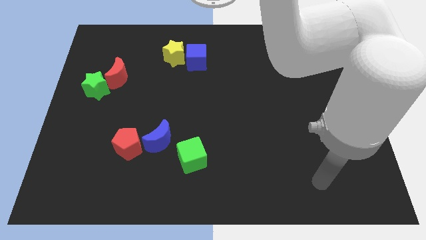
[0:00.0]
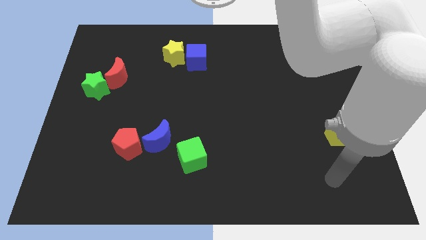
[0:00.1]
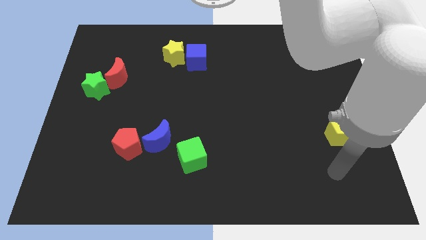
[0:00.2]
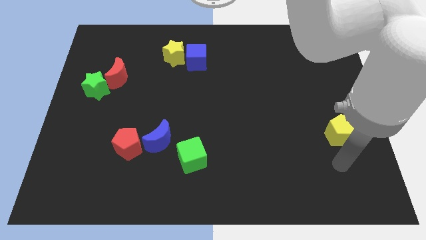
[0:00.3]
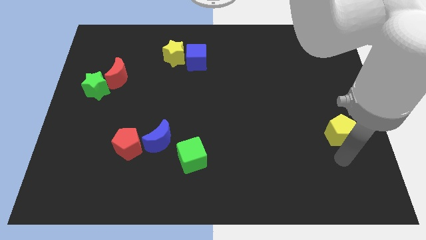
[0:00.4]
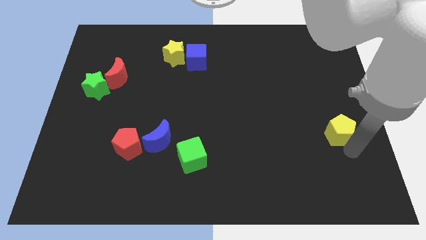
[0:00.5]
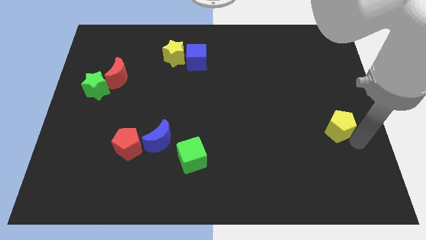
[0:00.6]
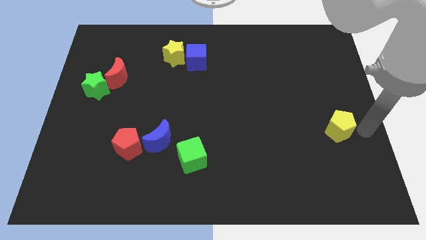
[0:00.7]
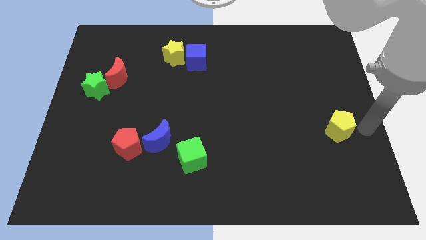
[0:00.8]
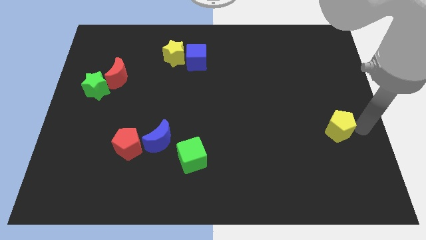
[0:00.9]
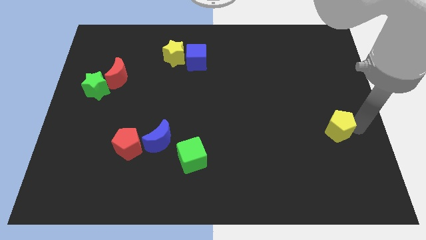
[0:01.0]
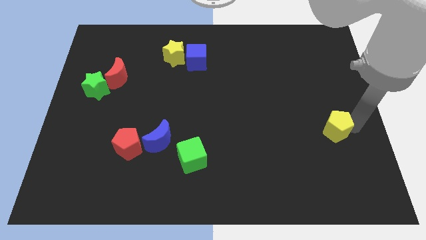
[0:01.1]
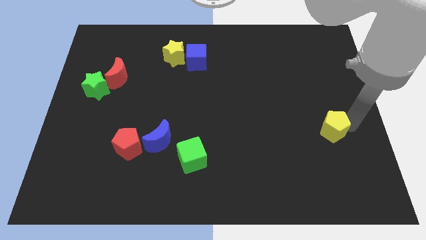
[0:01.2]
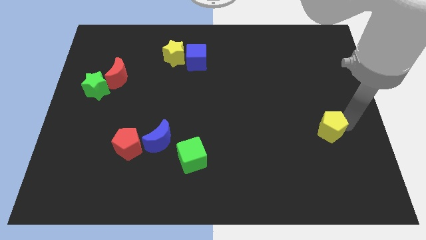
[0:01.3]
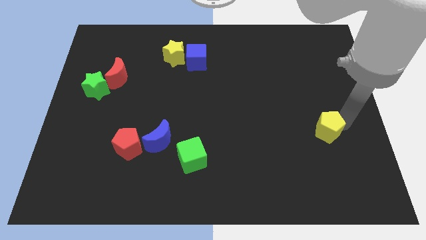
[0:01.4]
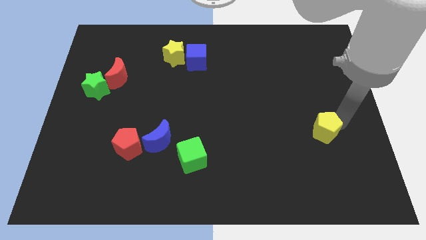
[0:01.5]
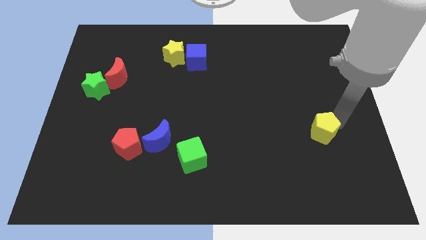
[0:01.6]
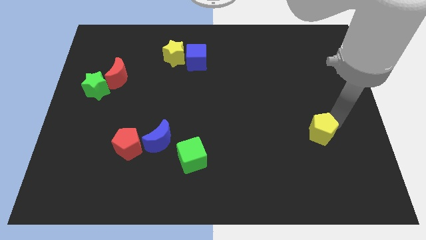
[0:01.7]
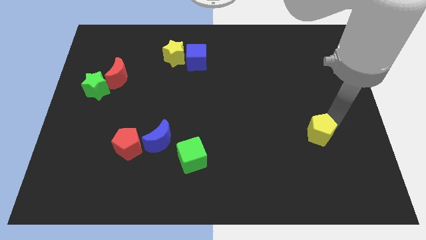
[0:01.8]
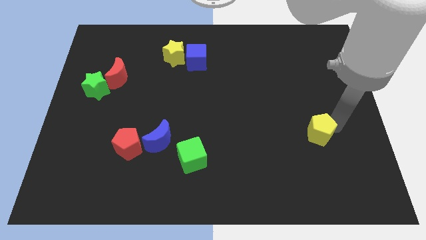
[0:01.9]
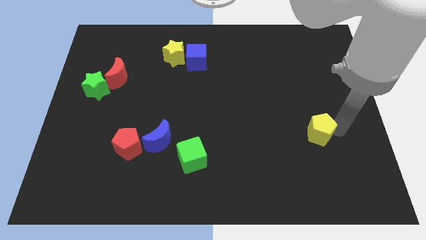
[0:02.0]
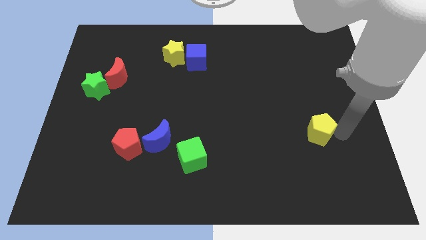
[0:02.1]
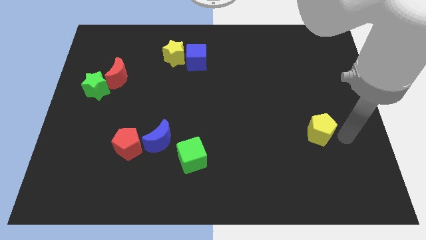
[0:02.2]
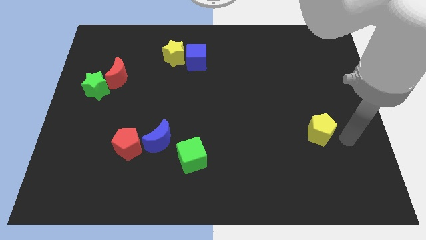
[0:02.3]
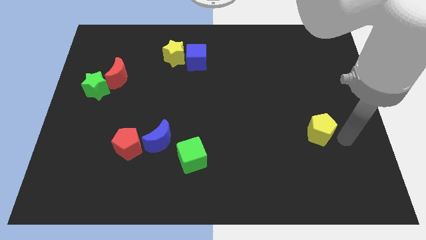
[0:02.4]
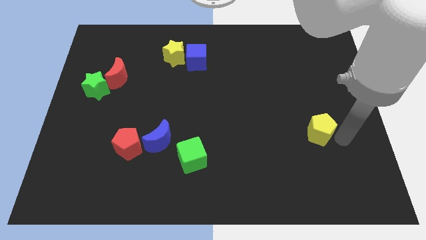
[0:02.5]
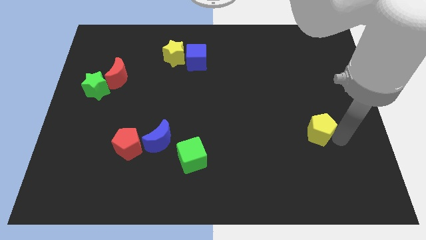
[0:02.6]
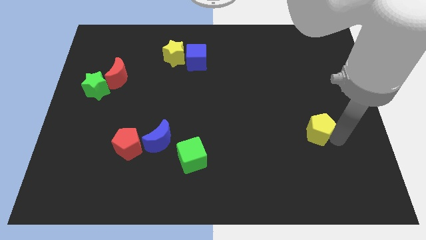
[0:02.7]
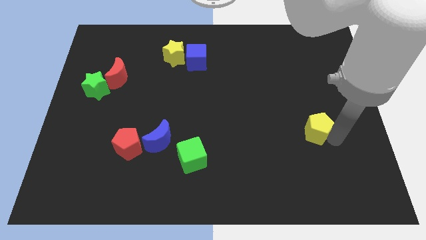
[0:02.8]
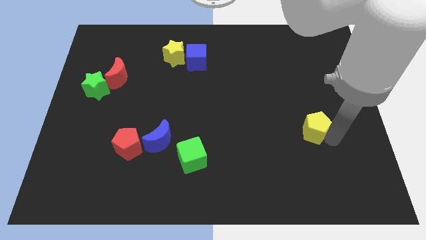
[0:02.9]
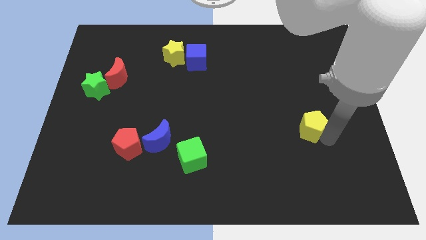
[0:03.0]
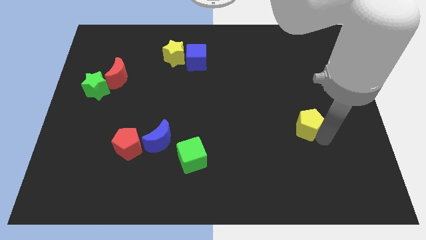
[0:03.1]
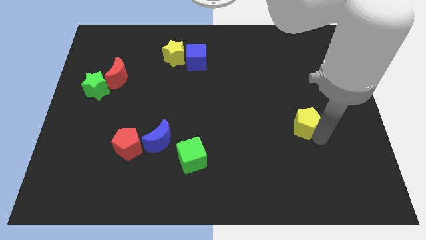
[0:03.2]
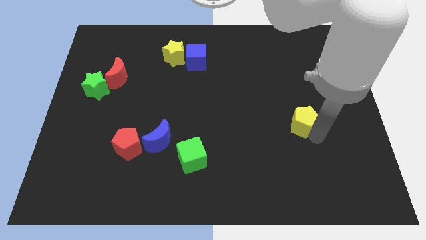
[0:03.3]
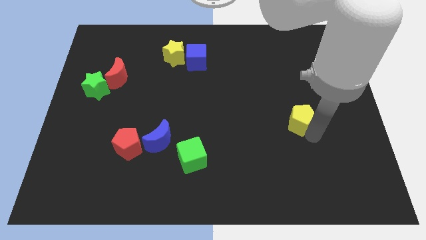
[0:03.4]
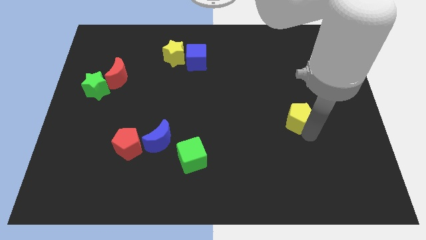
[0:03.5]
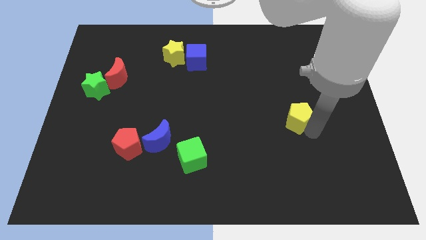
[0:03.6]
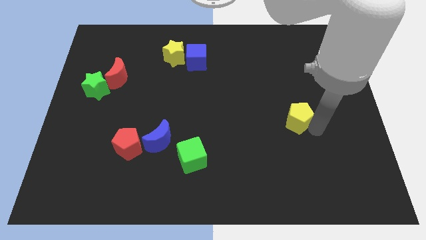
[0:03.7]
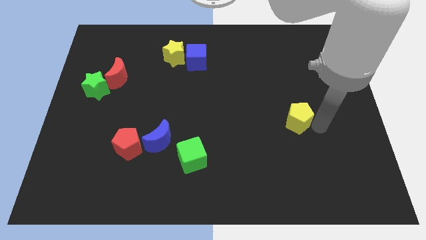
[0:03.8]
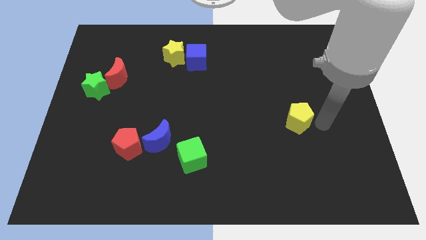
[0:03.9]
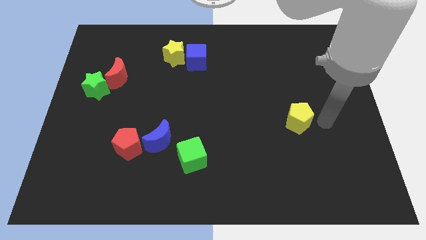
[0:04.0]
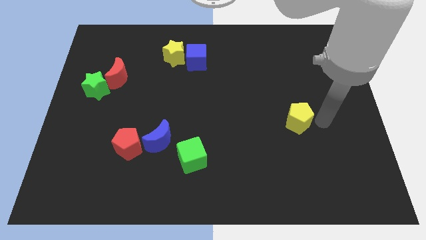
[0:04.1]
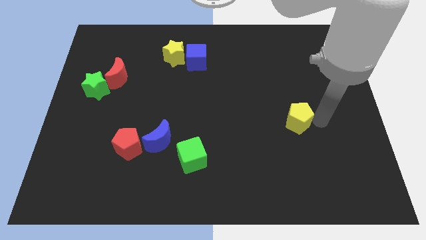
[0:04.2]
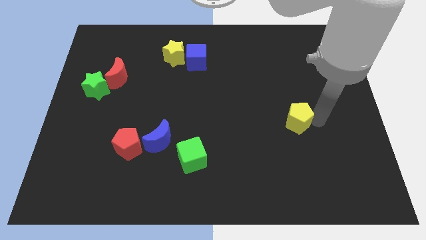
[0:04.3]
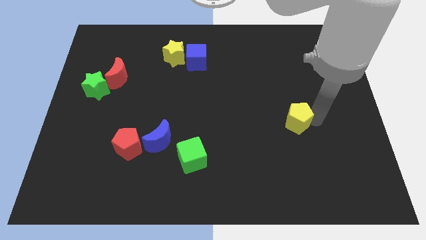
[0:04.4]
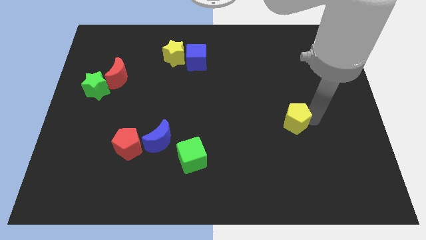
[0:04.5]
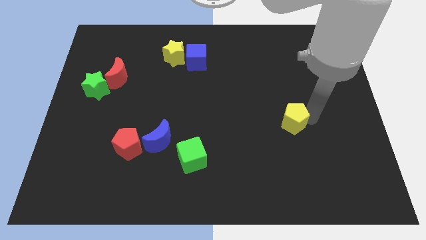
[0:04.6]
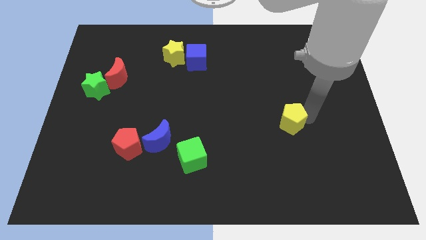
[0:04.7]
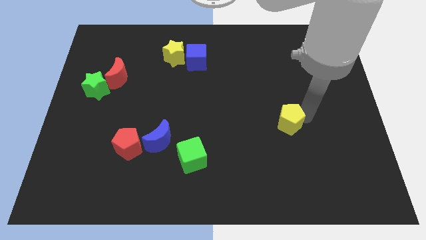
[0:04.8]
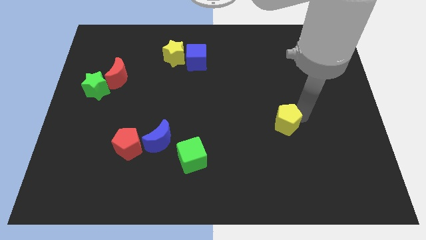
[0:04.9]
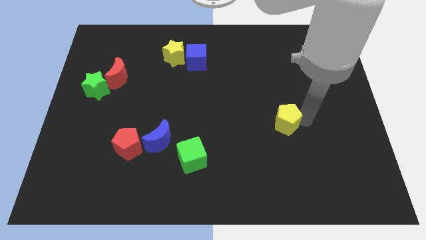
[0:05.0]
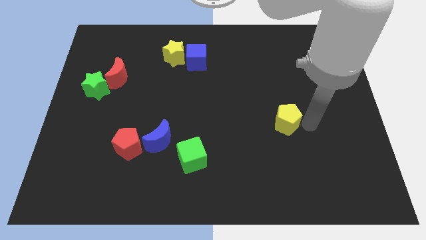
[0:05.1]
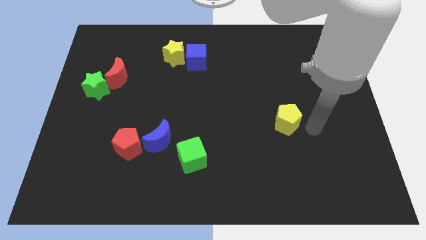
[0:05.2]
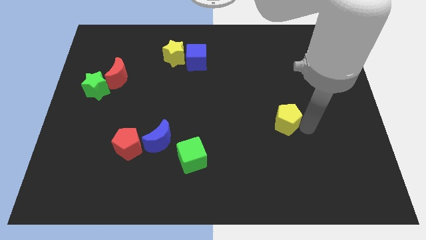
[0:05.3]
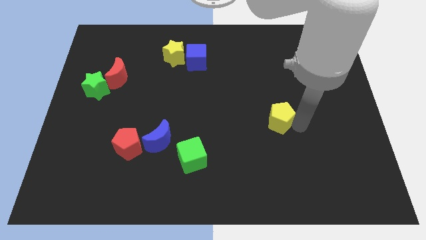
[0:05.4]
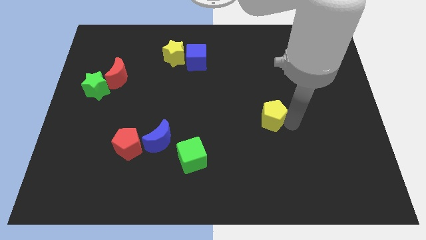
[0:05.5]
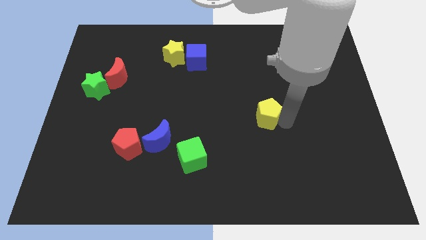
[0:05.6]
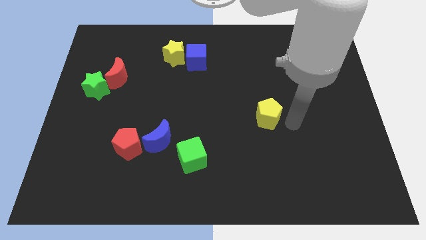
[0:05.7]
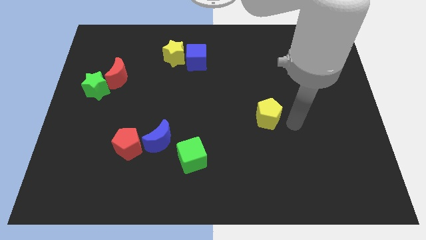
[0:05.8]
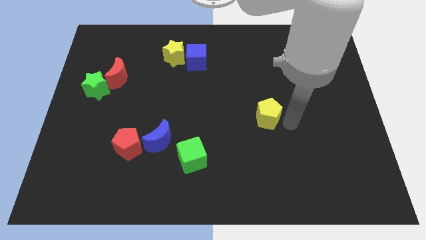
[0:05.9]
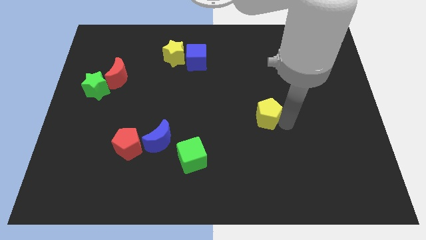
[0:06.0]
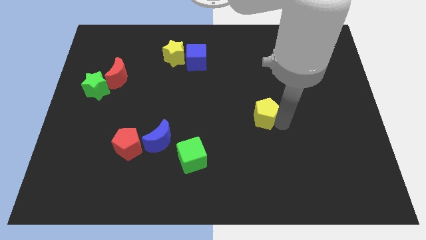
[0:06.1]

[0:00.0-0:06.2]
slide the yellow pentagon to the middle of the board
